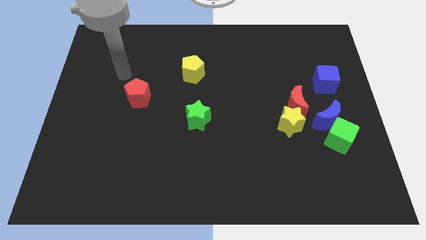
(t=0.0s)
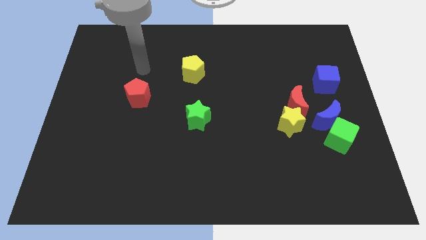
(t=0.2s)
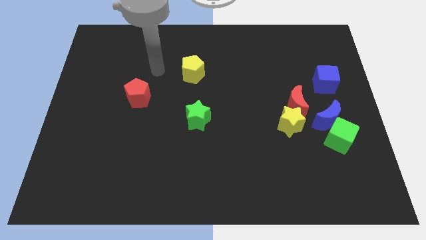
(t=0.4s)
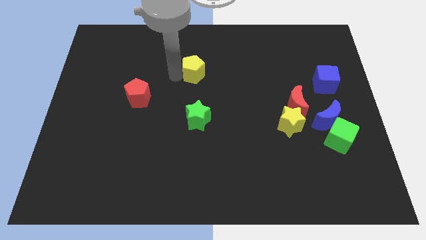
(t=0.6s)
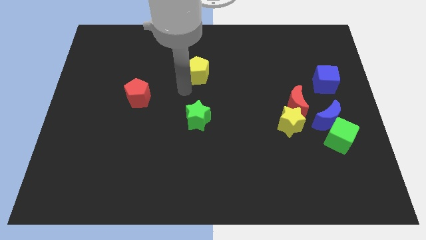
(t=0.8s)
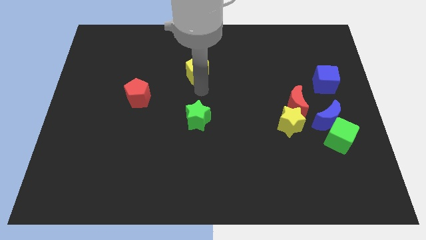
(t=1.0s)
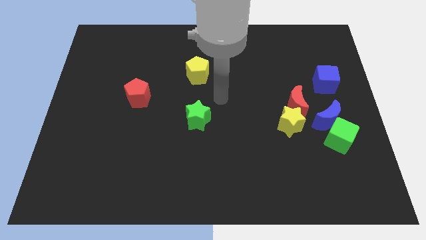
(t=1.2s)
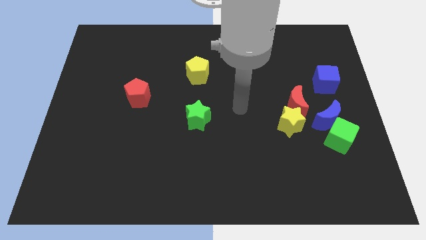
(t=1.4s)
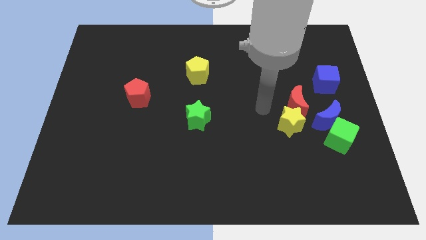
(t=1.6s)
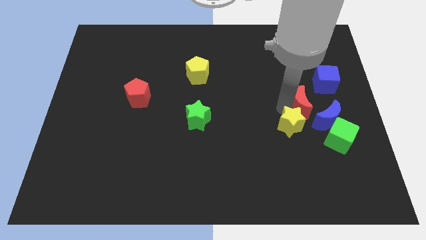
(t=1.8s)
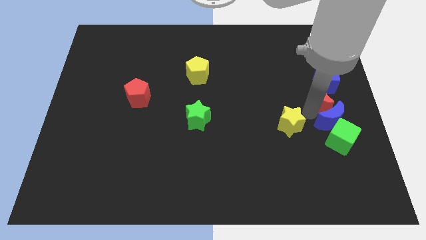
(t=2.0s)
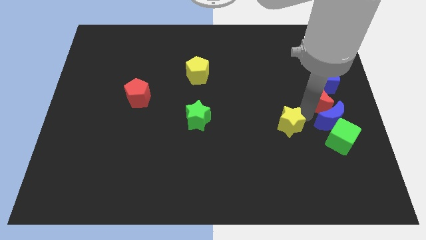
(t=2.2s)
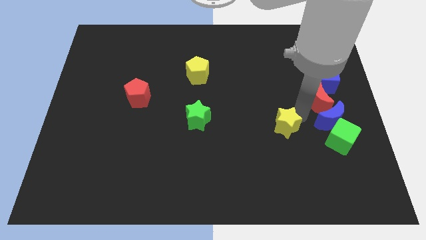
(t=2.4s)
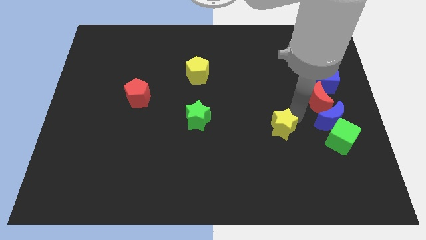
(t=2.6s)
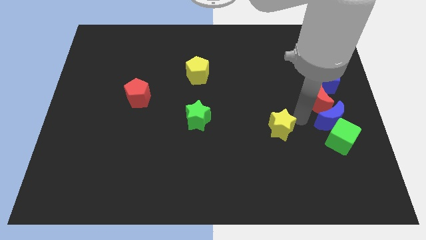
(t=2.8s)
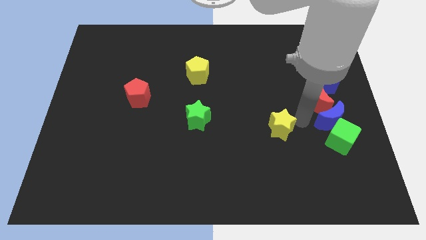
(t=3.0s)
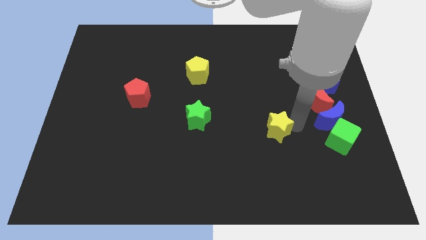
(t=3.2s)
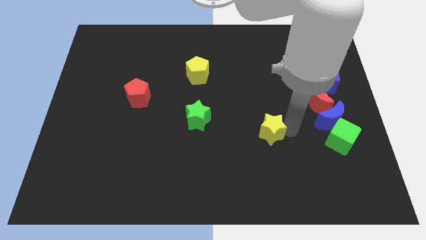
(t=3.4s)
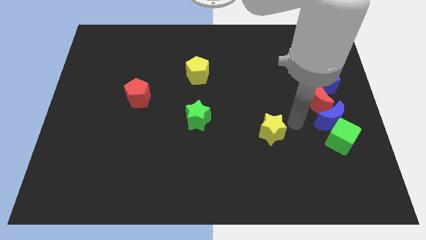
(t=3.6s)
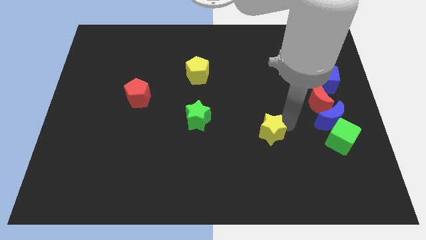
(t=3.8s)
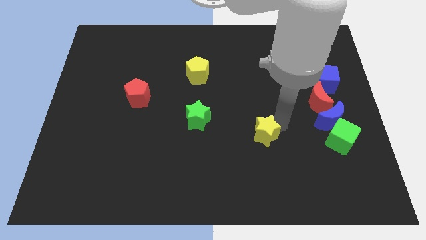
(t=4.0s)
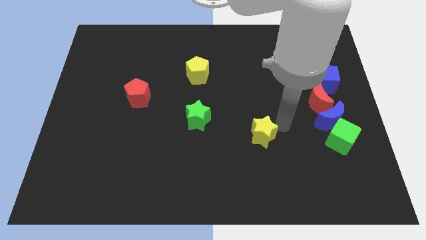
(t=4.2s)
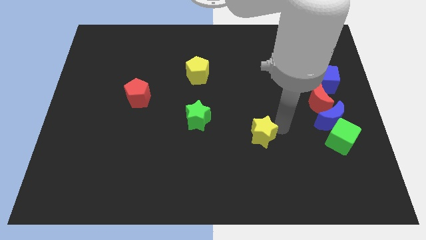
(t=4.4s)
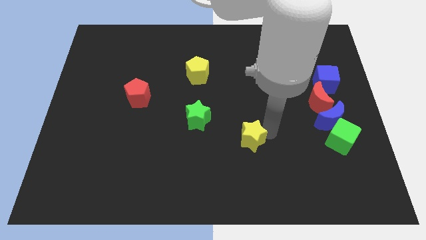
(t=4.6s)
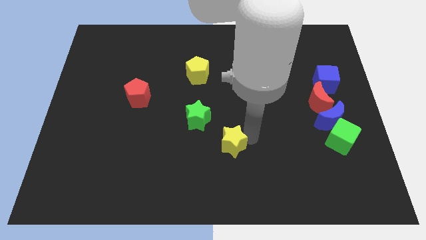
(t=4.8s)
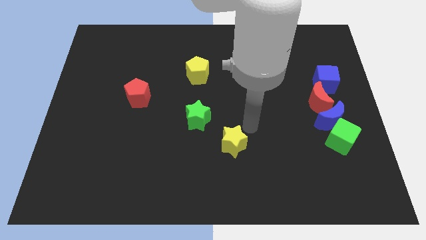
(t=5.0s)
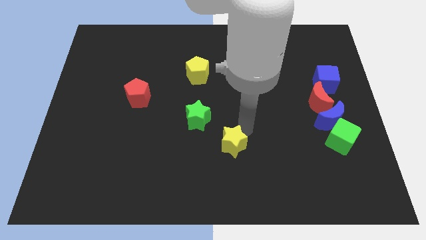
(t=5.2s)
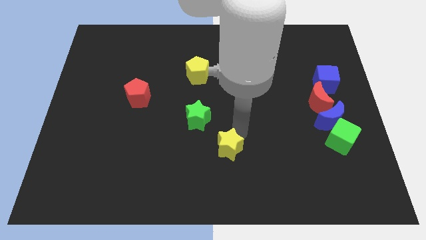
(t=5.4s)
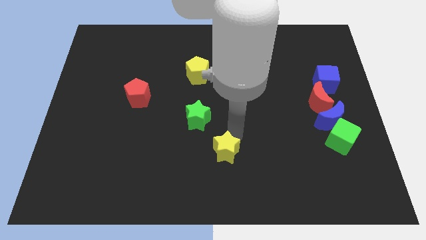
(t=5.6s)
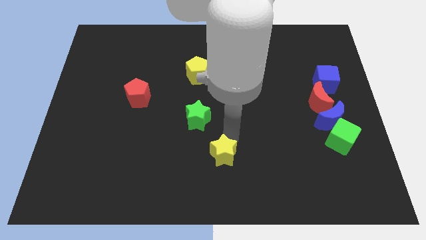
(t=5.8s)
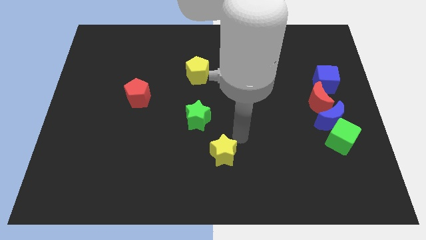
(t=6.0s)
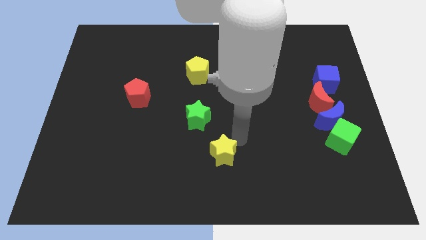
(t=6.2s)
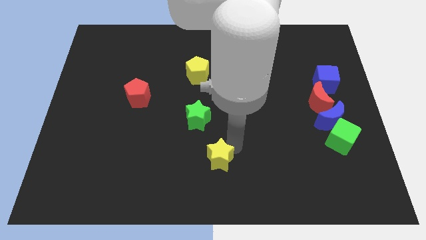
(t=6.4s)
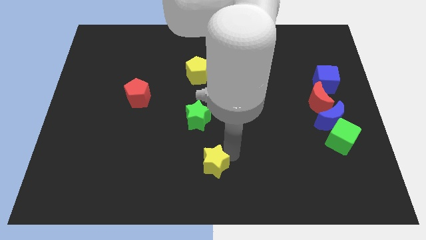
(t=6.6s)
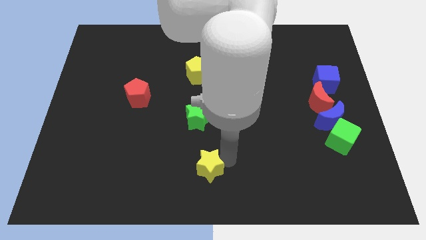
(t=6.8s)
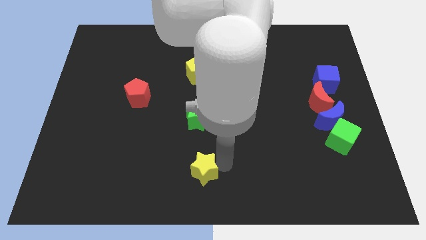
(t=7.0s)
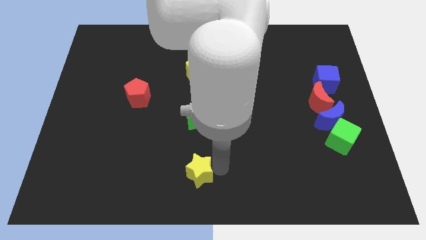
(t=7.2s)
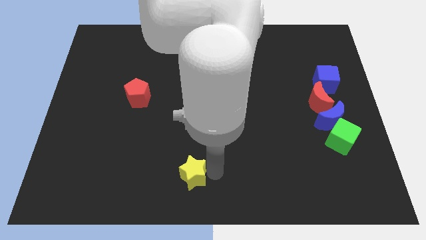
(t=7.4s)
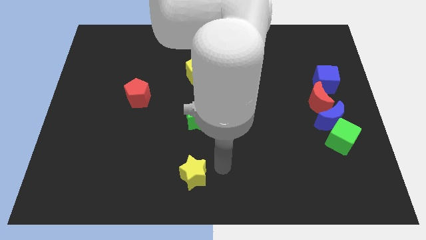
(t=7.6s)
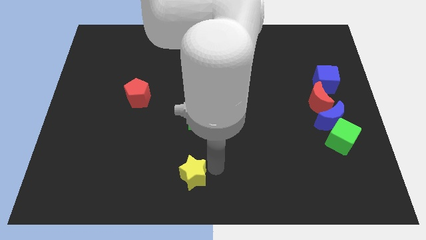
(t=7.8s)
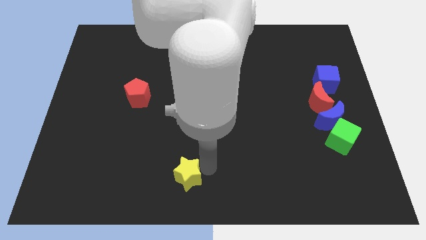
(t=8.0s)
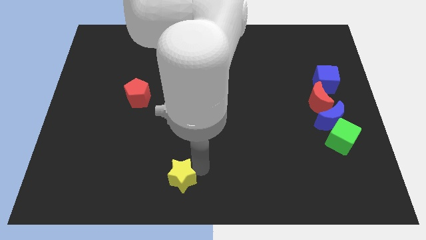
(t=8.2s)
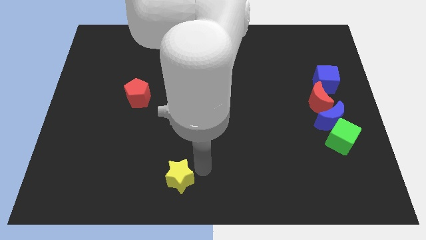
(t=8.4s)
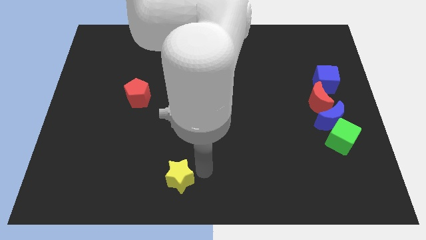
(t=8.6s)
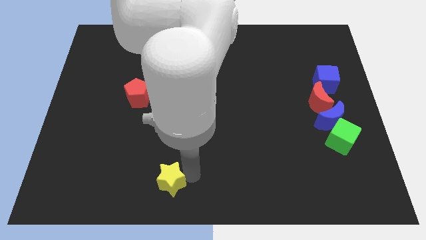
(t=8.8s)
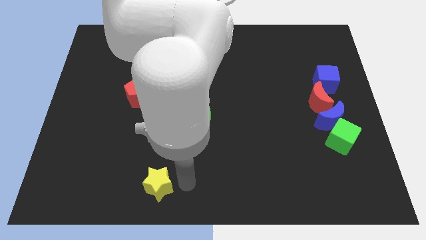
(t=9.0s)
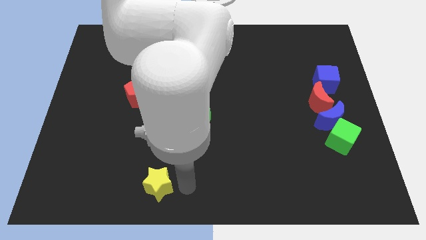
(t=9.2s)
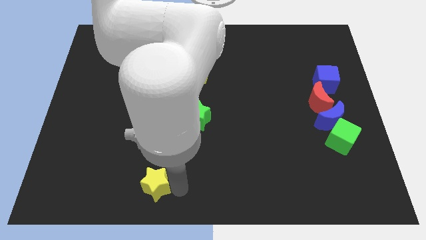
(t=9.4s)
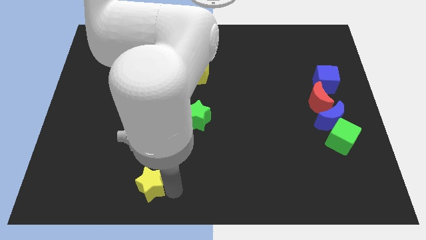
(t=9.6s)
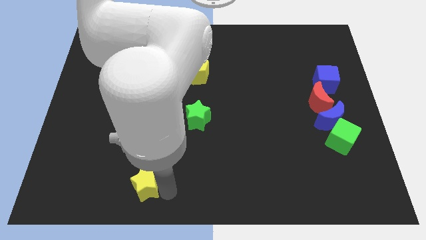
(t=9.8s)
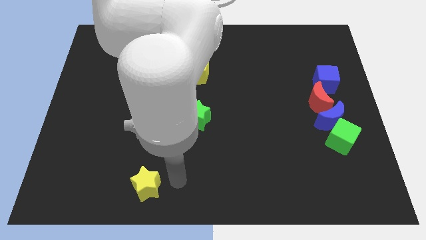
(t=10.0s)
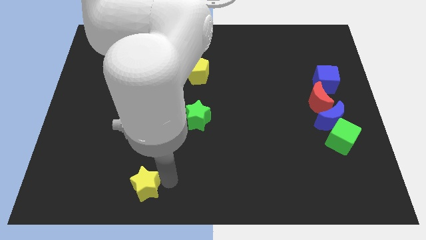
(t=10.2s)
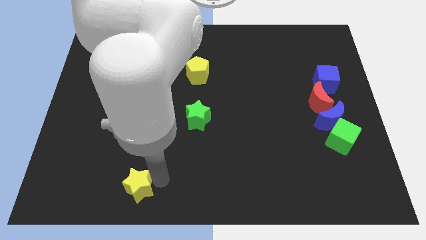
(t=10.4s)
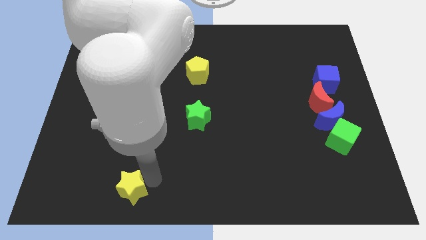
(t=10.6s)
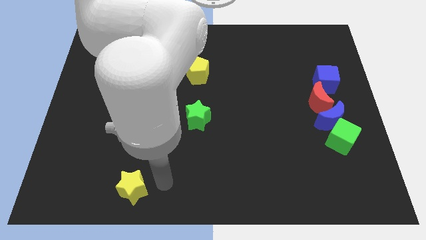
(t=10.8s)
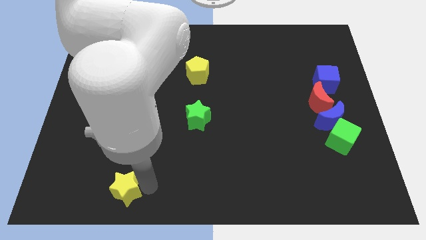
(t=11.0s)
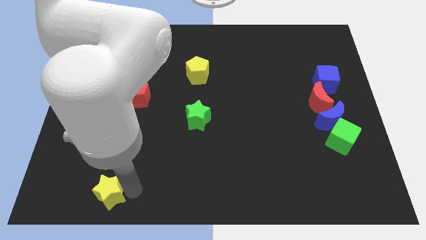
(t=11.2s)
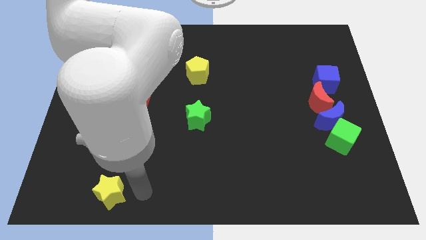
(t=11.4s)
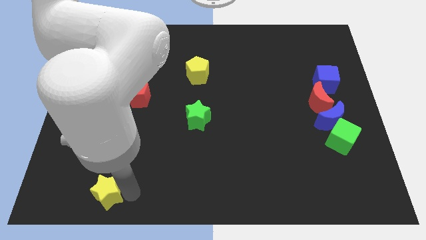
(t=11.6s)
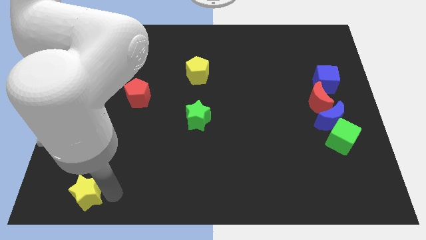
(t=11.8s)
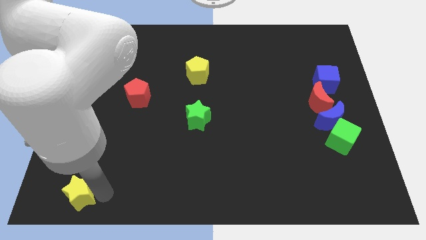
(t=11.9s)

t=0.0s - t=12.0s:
push the yellow star to the bottom left corner

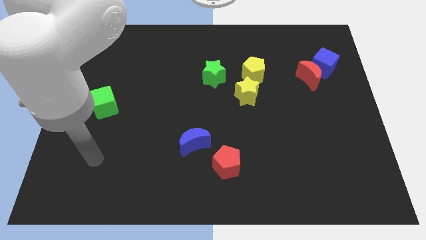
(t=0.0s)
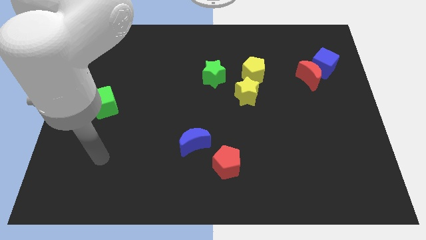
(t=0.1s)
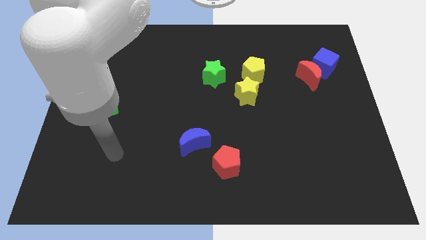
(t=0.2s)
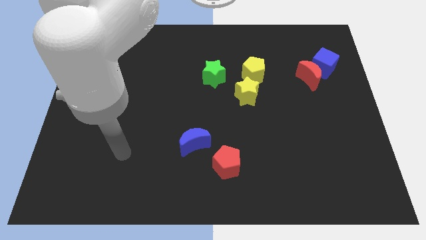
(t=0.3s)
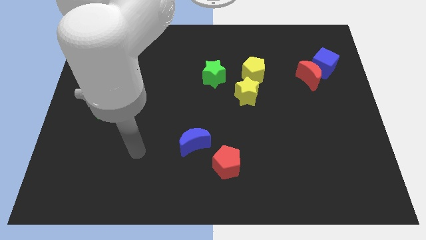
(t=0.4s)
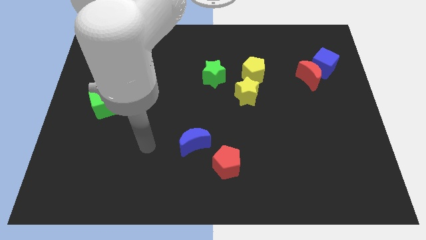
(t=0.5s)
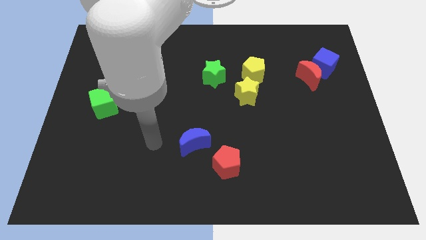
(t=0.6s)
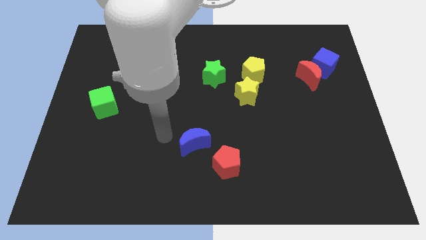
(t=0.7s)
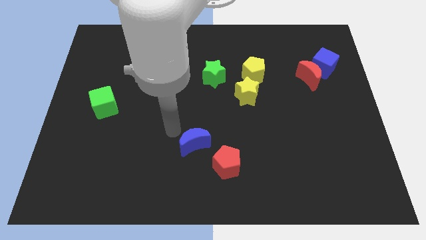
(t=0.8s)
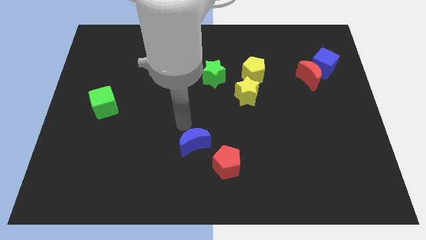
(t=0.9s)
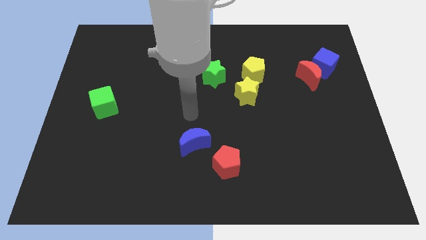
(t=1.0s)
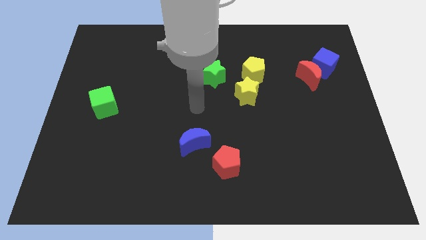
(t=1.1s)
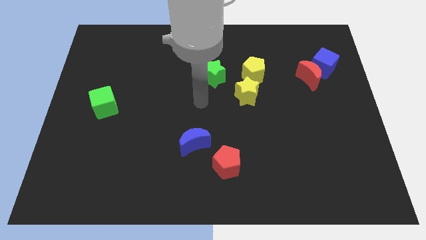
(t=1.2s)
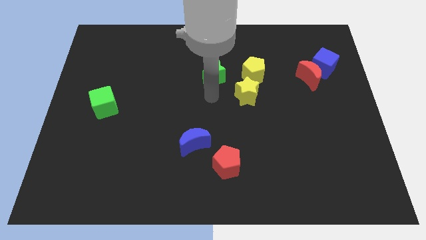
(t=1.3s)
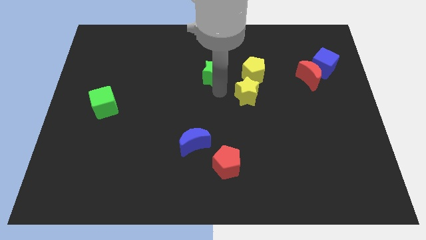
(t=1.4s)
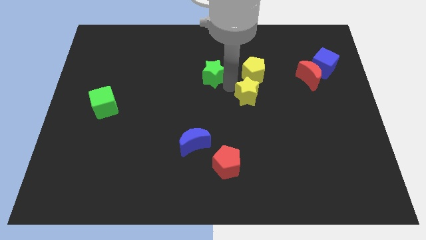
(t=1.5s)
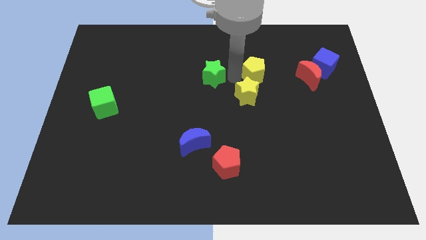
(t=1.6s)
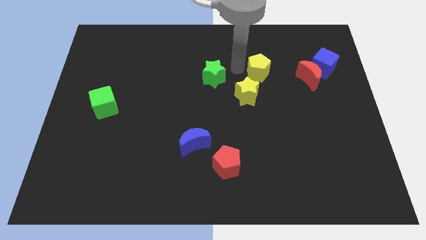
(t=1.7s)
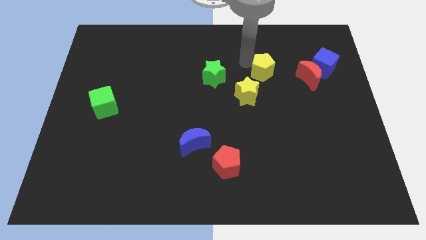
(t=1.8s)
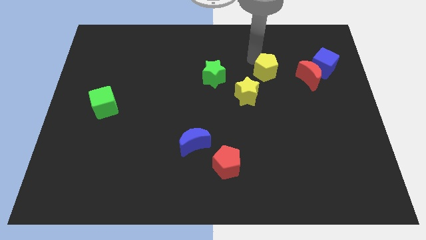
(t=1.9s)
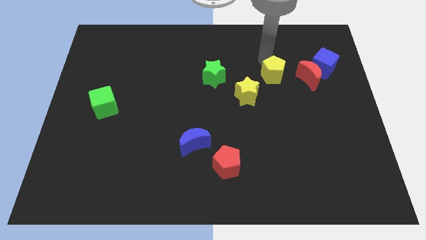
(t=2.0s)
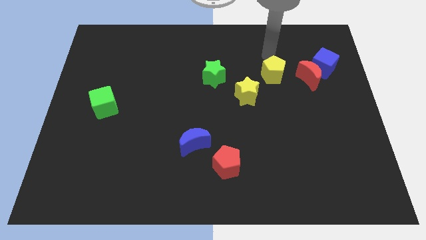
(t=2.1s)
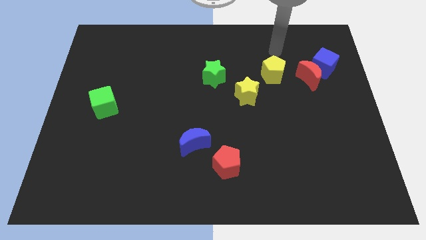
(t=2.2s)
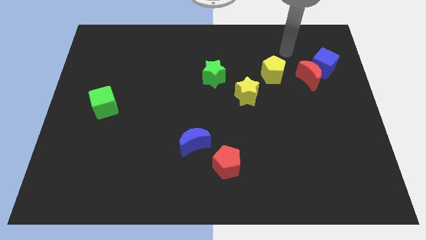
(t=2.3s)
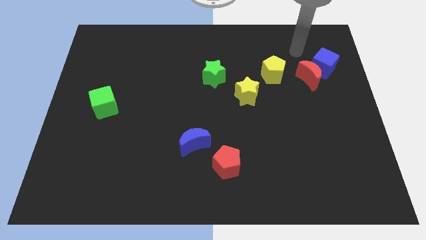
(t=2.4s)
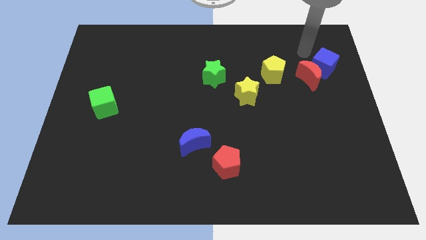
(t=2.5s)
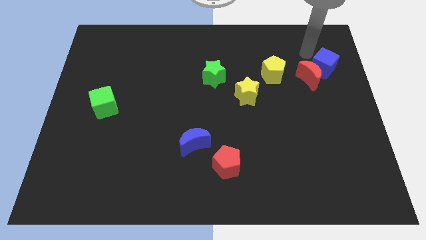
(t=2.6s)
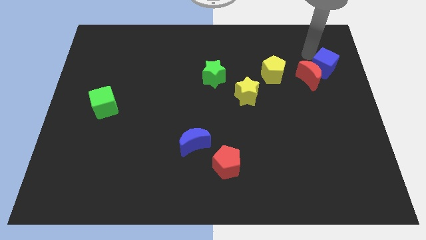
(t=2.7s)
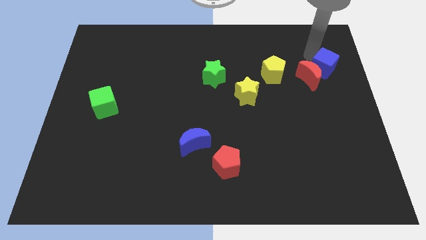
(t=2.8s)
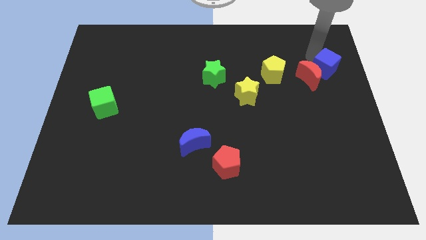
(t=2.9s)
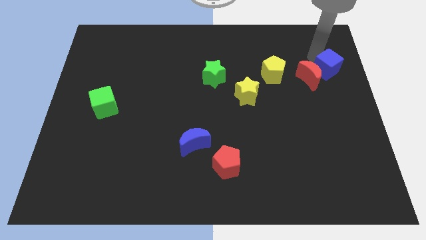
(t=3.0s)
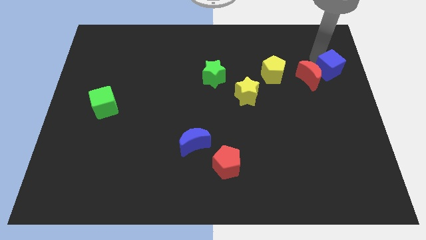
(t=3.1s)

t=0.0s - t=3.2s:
move the blue cube to the right side of the board
